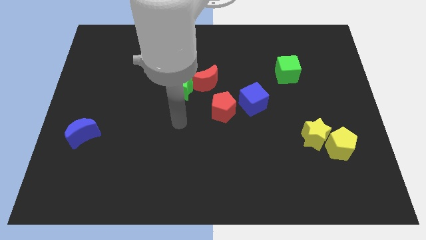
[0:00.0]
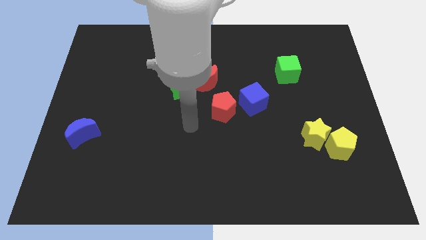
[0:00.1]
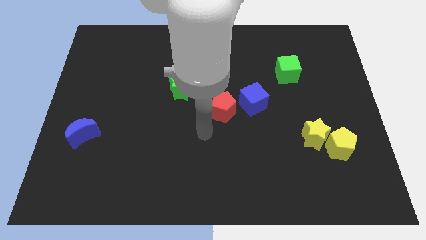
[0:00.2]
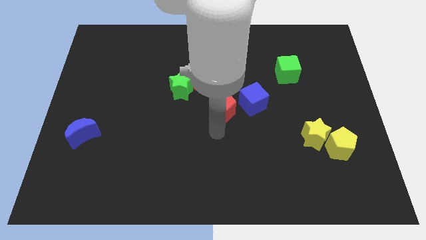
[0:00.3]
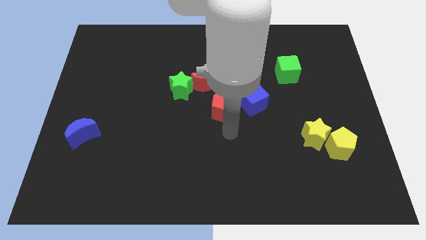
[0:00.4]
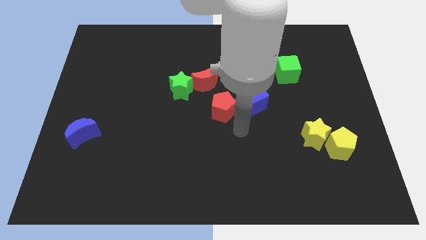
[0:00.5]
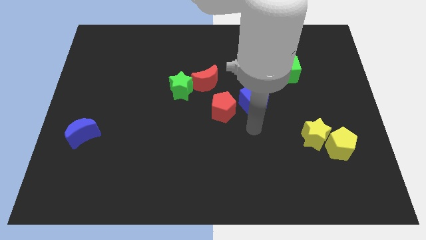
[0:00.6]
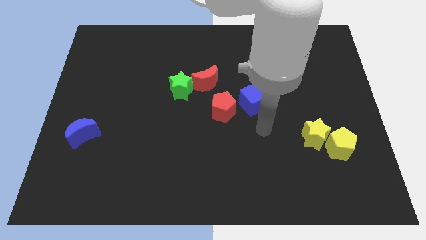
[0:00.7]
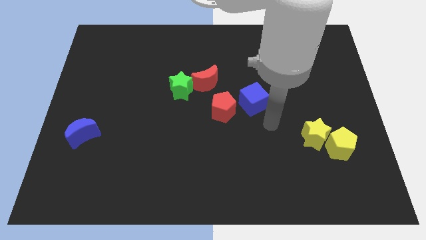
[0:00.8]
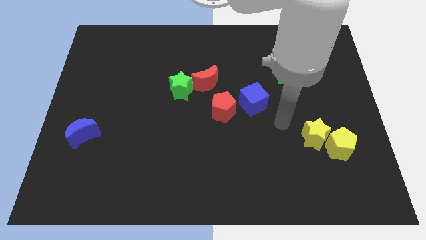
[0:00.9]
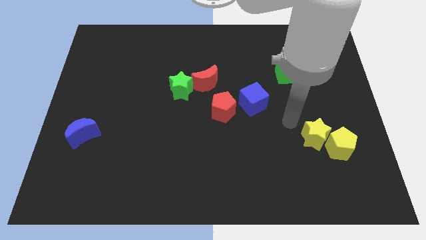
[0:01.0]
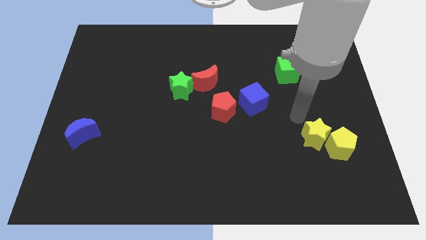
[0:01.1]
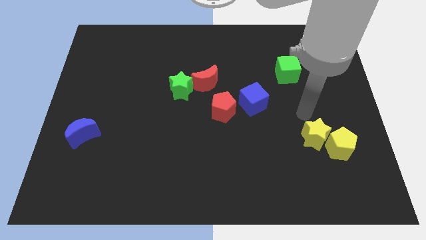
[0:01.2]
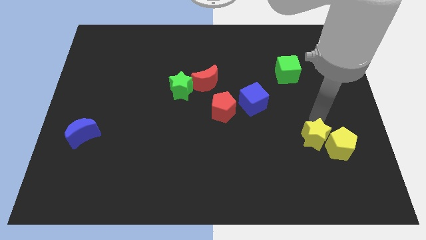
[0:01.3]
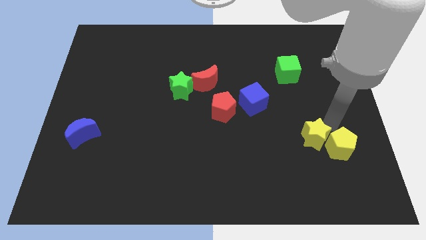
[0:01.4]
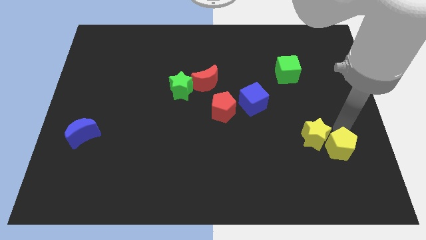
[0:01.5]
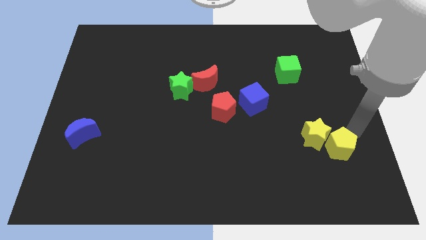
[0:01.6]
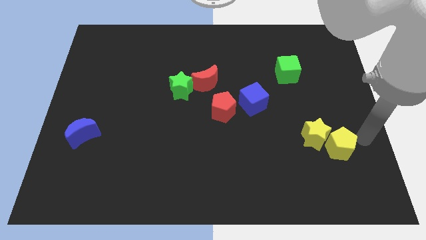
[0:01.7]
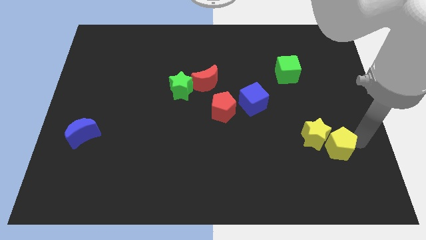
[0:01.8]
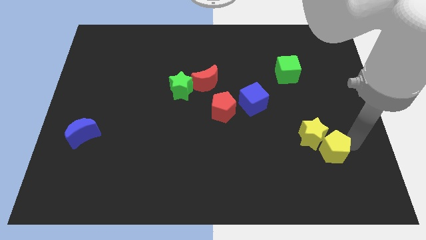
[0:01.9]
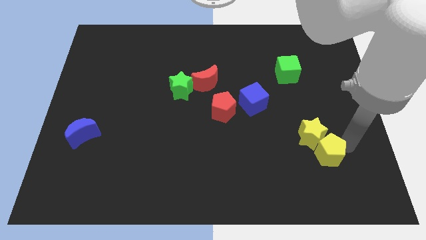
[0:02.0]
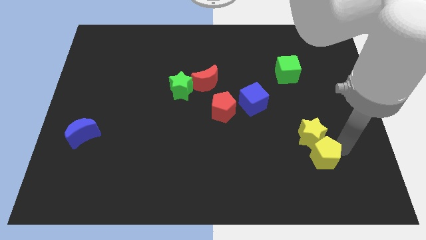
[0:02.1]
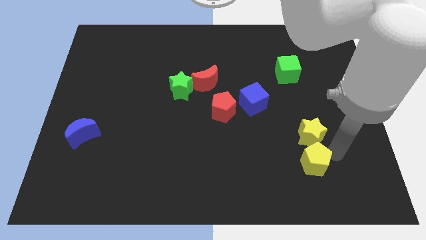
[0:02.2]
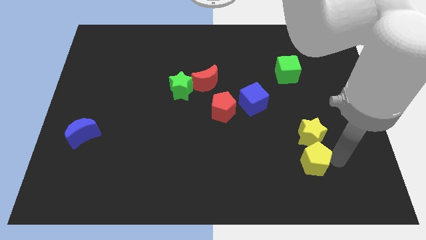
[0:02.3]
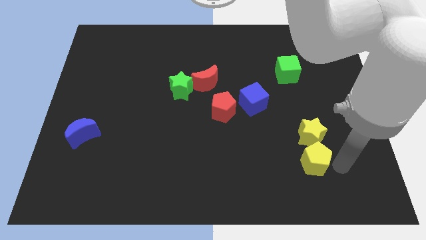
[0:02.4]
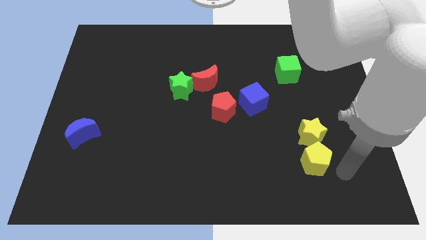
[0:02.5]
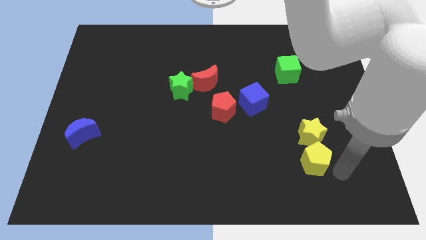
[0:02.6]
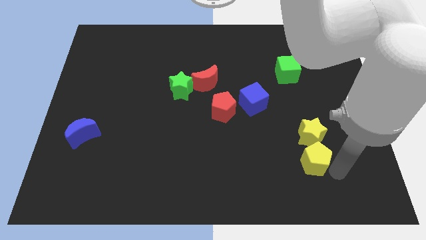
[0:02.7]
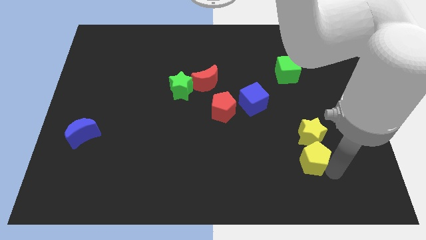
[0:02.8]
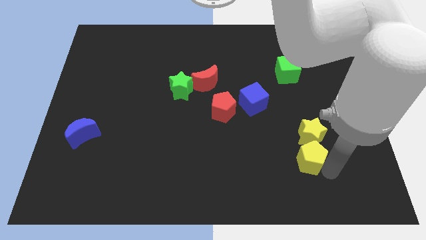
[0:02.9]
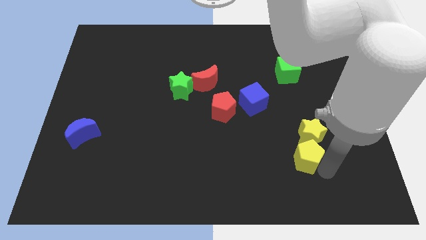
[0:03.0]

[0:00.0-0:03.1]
slightly push the yellow pentagon to the left

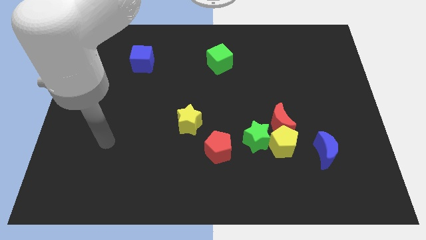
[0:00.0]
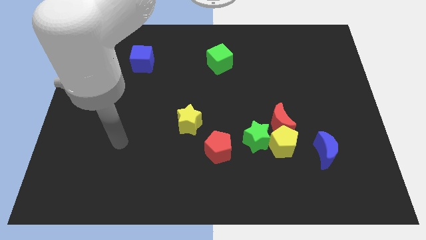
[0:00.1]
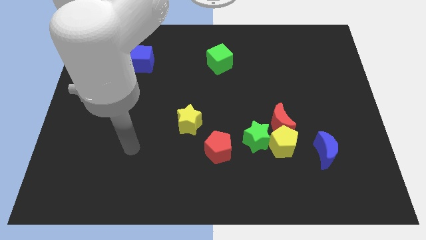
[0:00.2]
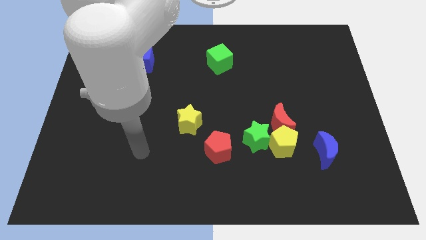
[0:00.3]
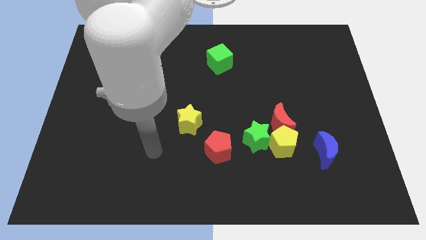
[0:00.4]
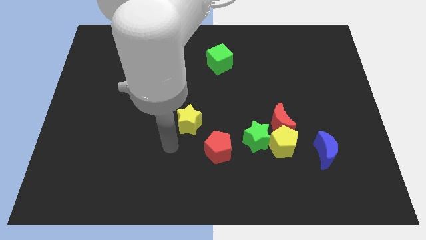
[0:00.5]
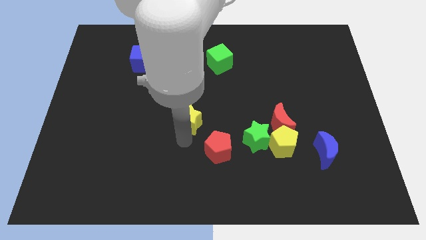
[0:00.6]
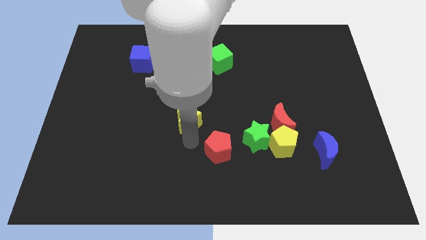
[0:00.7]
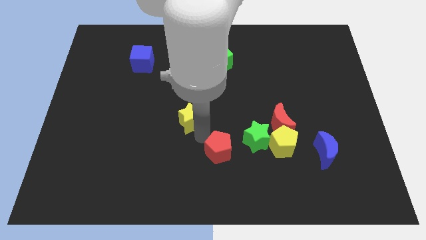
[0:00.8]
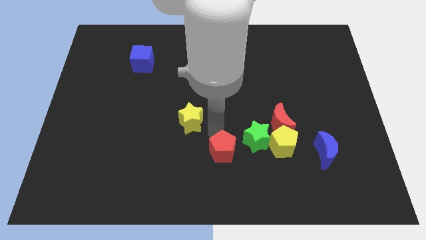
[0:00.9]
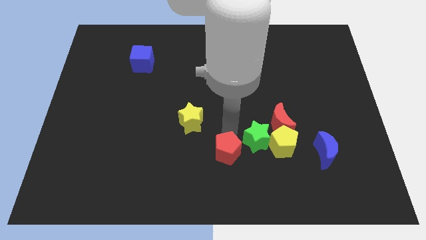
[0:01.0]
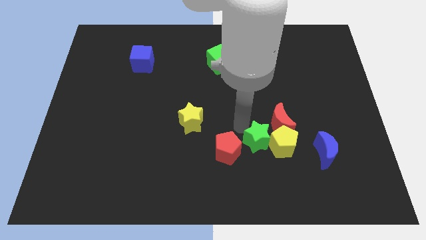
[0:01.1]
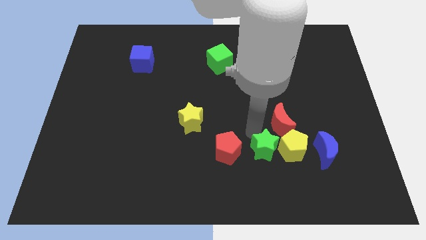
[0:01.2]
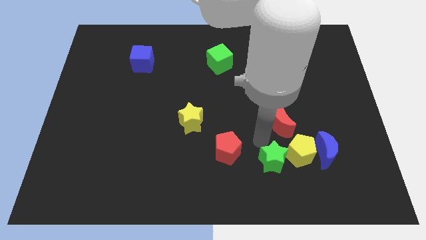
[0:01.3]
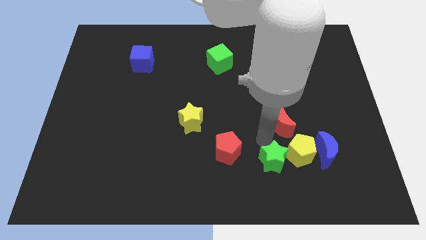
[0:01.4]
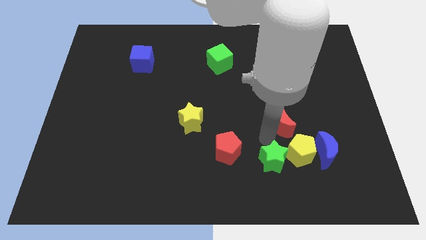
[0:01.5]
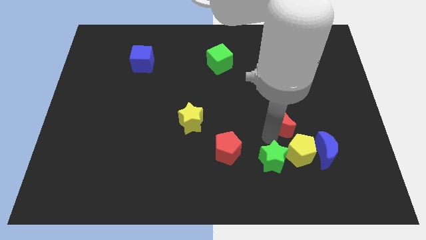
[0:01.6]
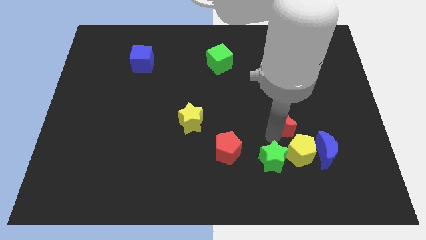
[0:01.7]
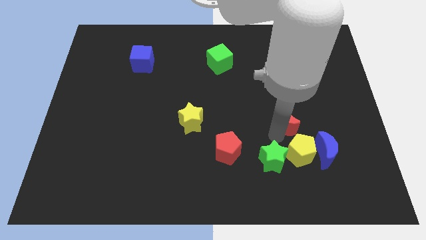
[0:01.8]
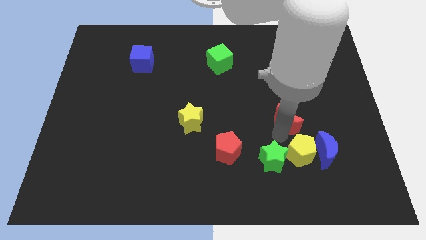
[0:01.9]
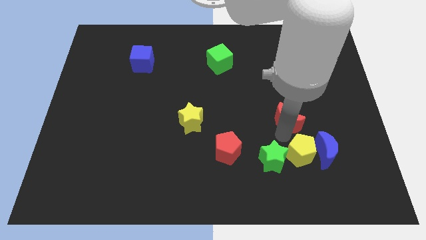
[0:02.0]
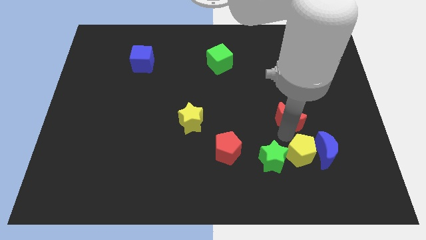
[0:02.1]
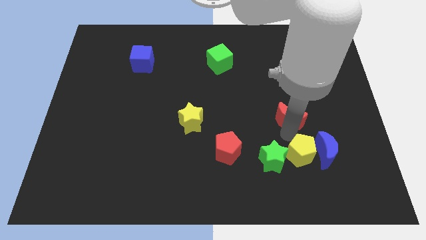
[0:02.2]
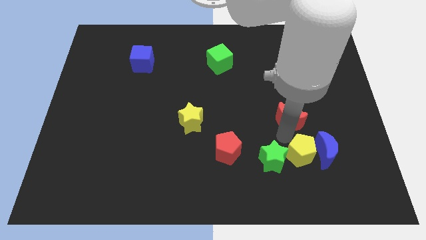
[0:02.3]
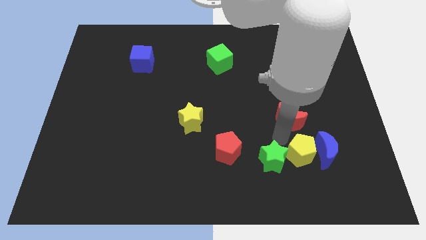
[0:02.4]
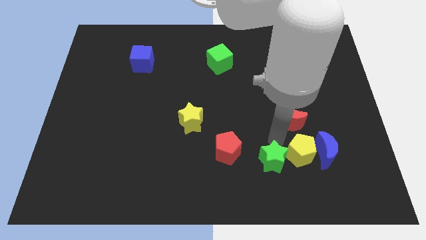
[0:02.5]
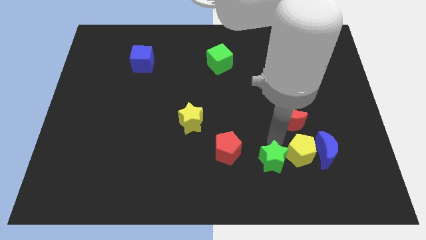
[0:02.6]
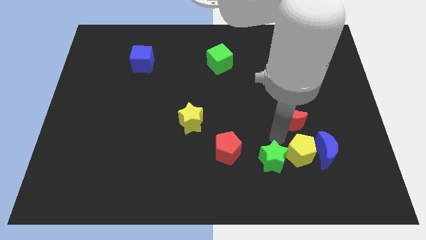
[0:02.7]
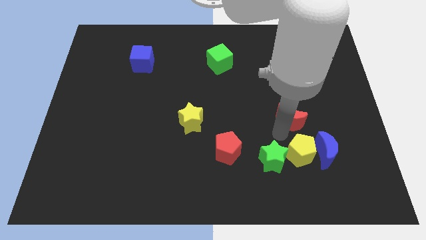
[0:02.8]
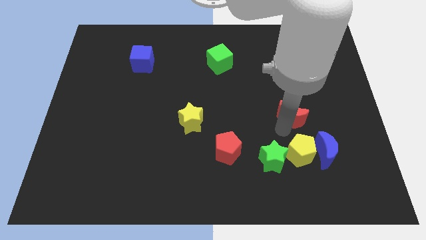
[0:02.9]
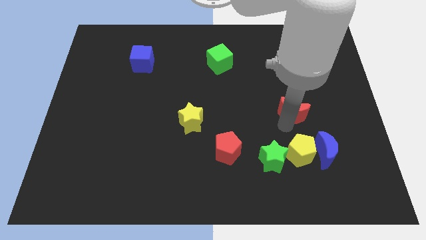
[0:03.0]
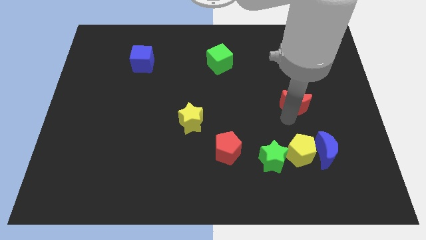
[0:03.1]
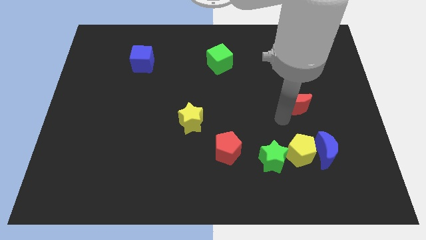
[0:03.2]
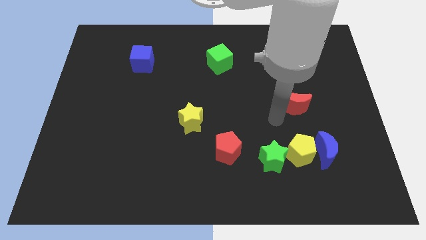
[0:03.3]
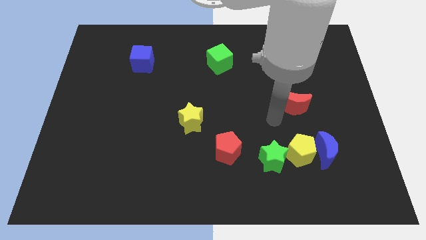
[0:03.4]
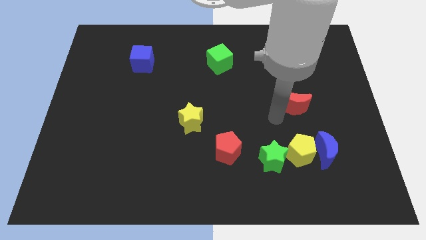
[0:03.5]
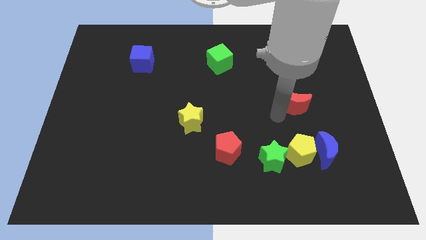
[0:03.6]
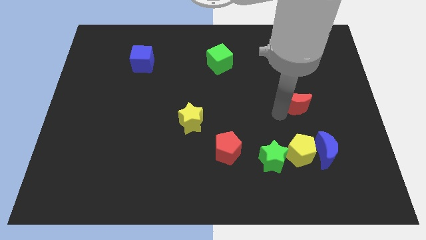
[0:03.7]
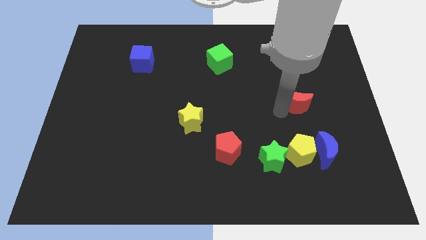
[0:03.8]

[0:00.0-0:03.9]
slightly move the red moon diagonally upwards and right

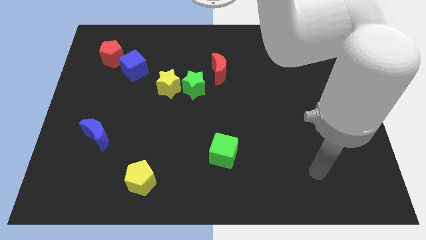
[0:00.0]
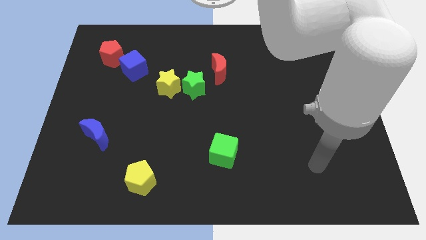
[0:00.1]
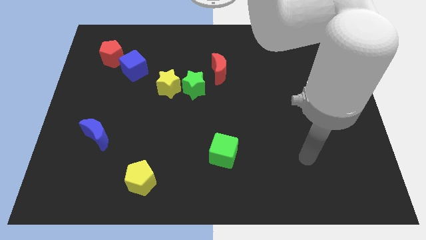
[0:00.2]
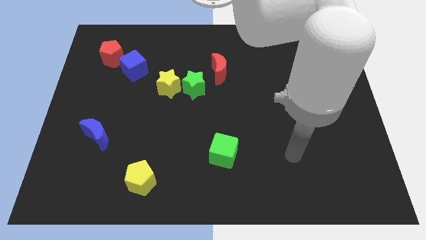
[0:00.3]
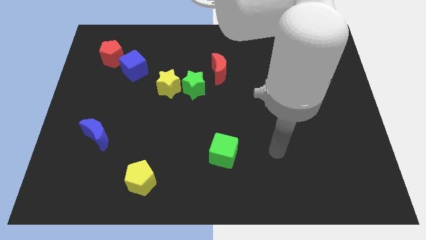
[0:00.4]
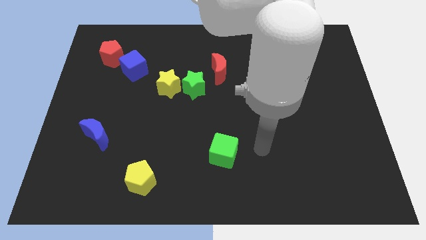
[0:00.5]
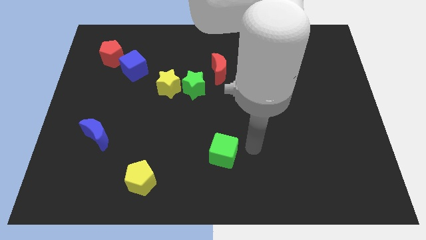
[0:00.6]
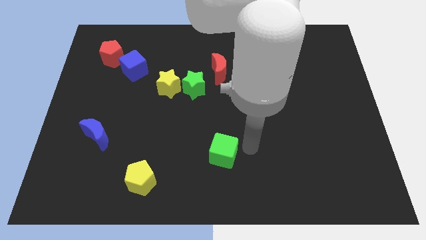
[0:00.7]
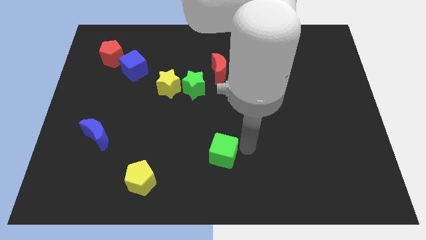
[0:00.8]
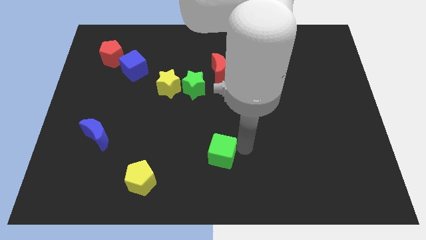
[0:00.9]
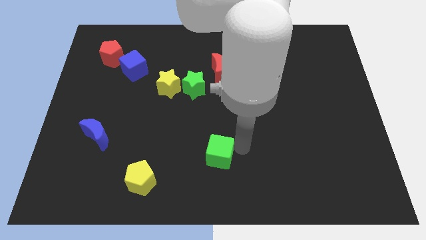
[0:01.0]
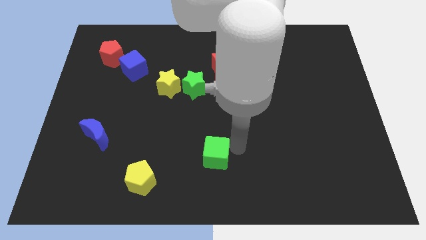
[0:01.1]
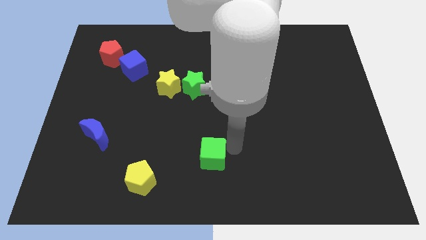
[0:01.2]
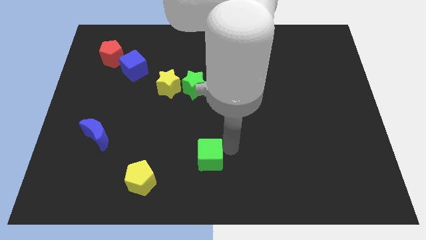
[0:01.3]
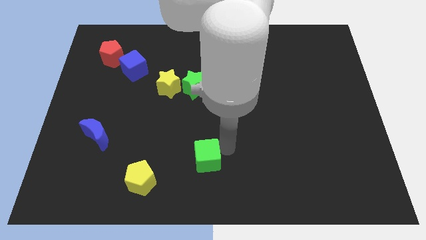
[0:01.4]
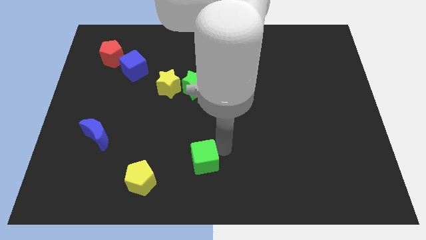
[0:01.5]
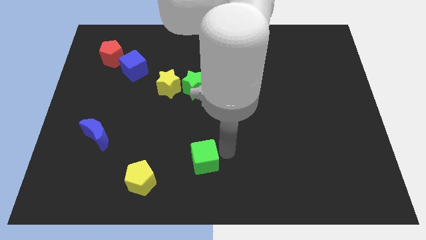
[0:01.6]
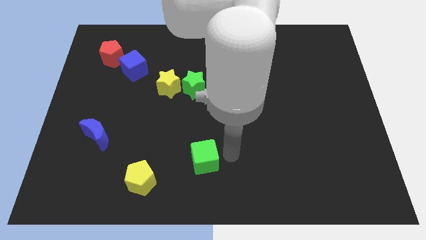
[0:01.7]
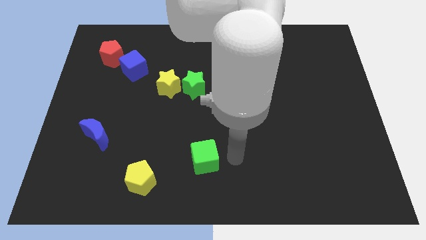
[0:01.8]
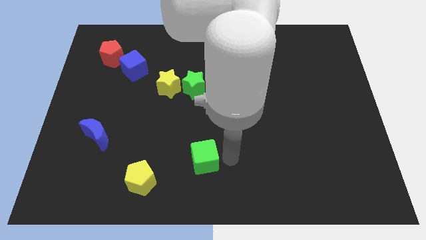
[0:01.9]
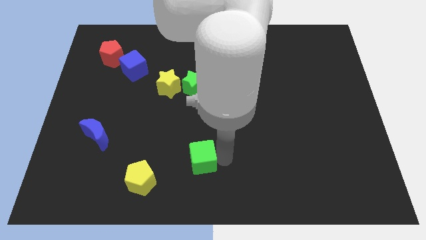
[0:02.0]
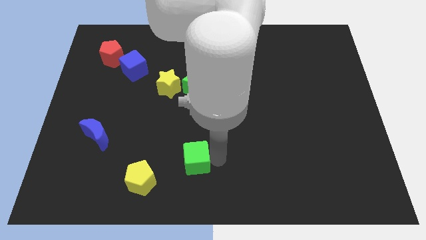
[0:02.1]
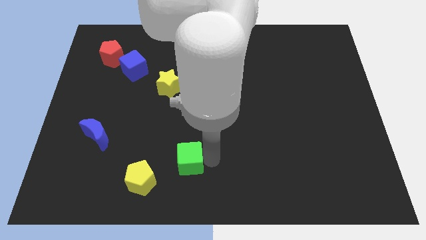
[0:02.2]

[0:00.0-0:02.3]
slightly push the green cube to the left
